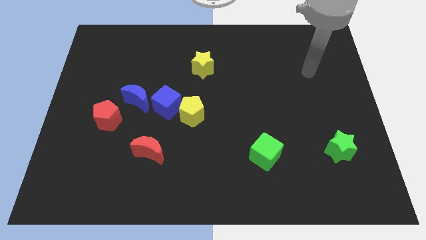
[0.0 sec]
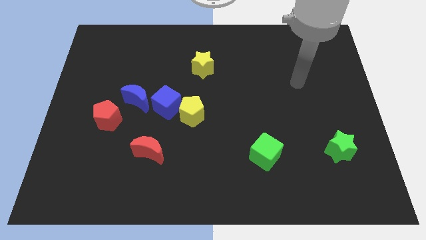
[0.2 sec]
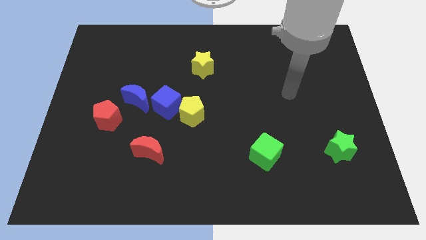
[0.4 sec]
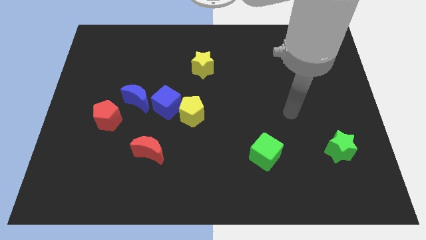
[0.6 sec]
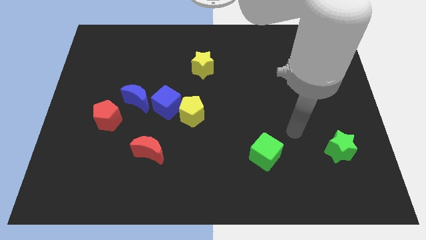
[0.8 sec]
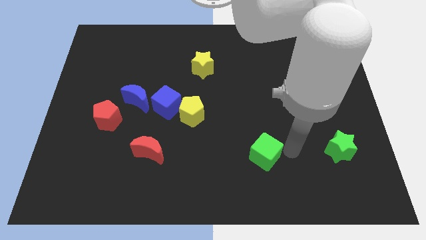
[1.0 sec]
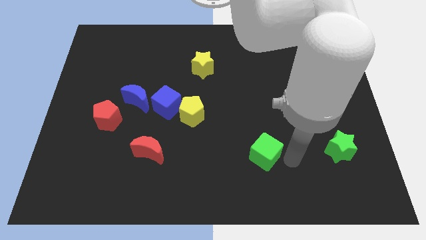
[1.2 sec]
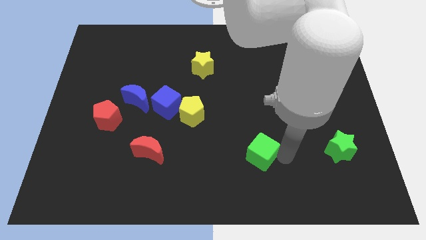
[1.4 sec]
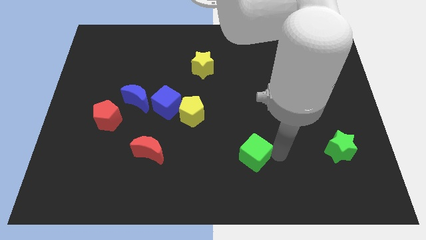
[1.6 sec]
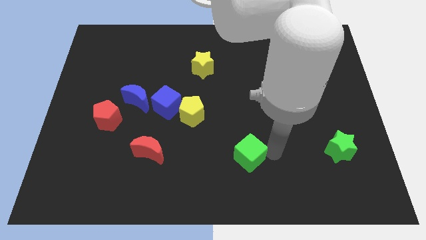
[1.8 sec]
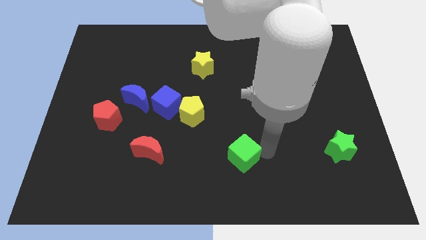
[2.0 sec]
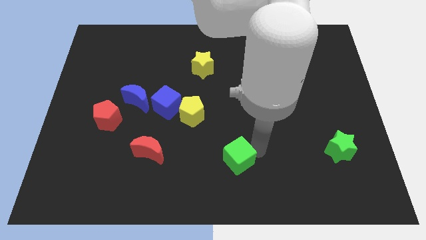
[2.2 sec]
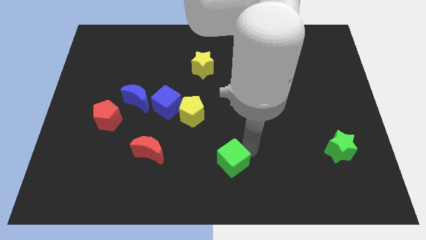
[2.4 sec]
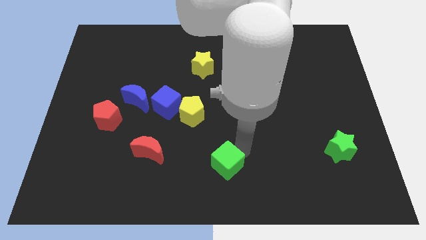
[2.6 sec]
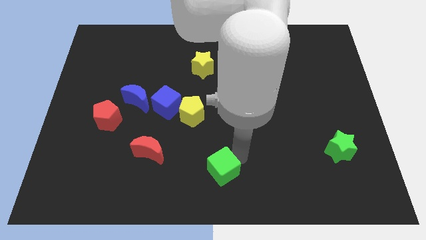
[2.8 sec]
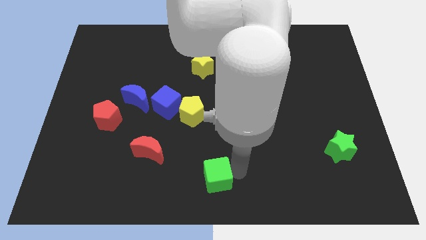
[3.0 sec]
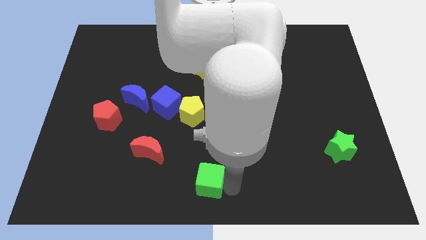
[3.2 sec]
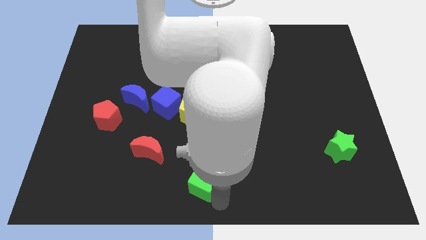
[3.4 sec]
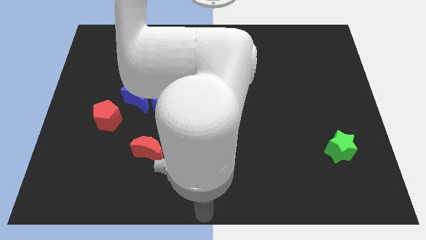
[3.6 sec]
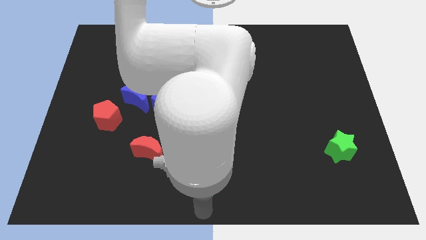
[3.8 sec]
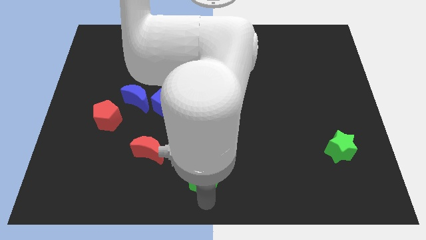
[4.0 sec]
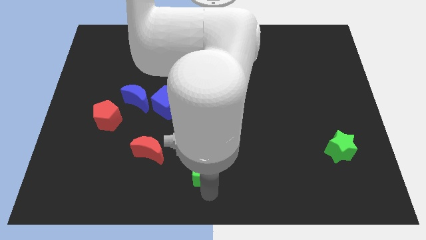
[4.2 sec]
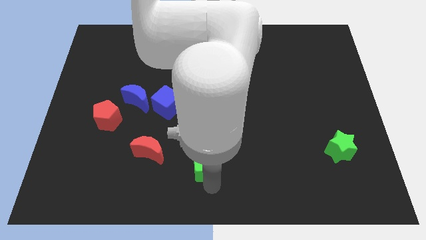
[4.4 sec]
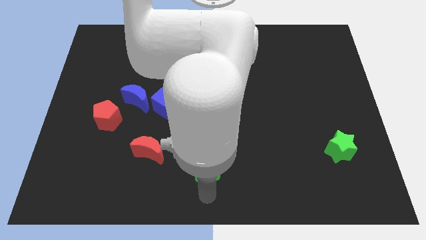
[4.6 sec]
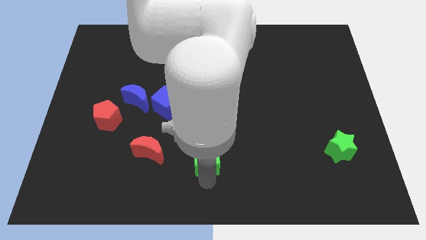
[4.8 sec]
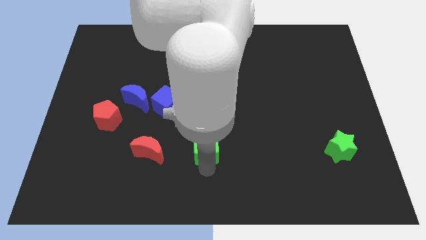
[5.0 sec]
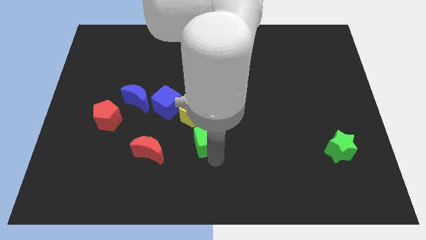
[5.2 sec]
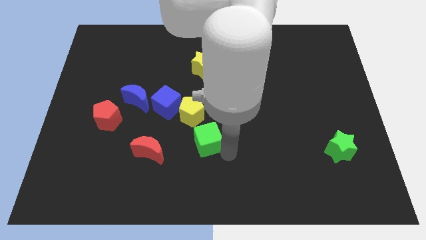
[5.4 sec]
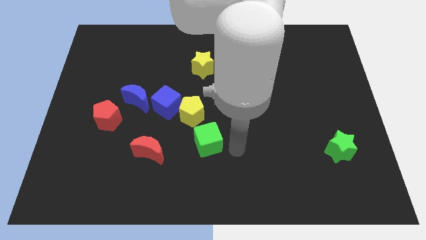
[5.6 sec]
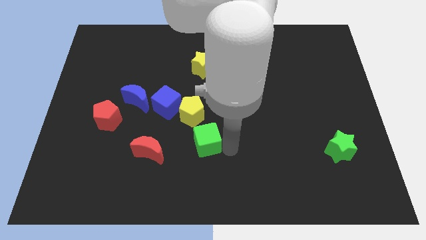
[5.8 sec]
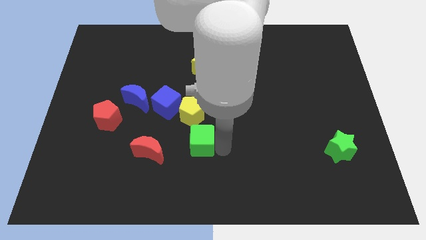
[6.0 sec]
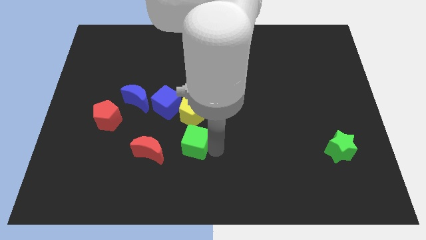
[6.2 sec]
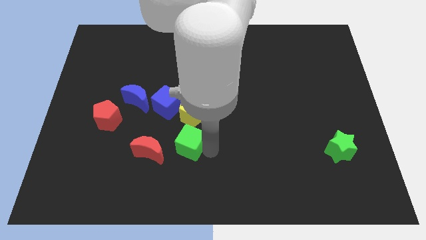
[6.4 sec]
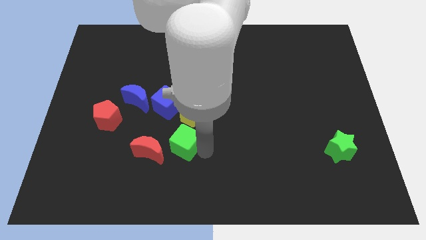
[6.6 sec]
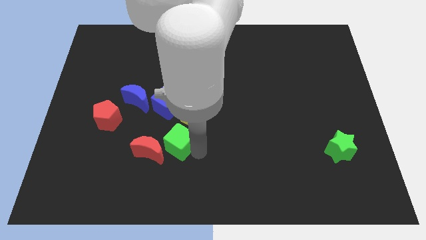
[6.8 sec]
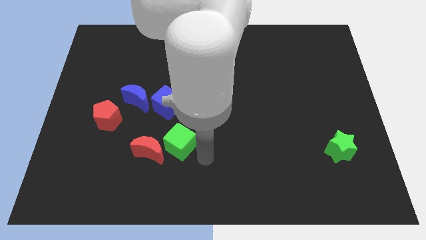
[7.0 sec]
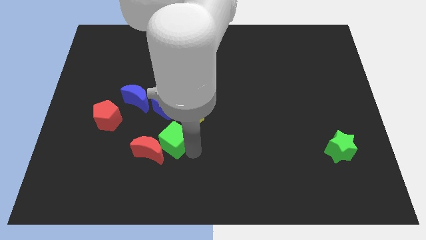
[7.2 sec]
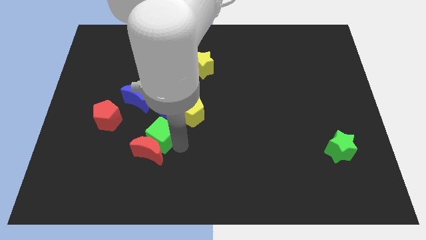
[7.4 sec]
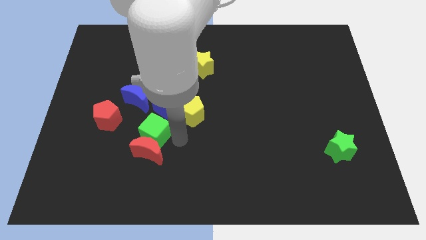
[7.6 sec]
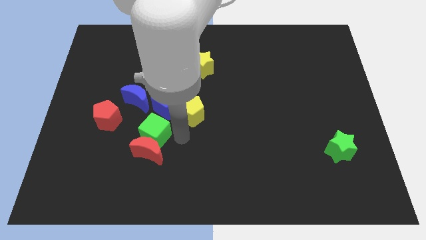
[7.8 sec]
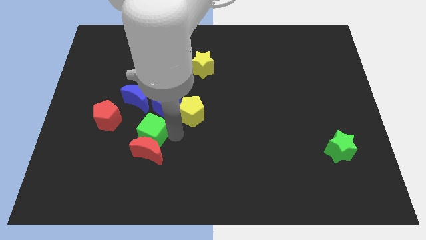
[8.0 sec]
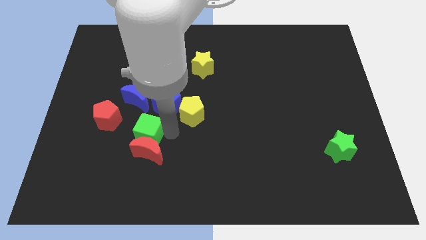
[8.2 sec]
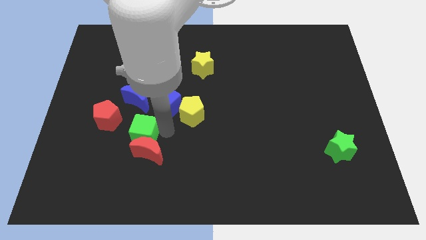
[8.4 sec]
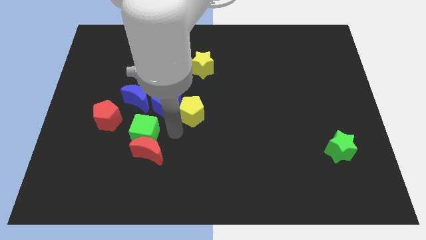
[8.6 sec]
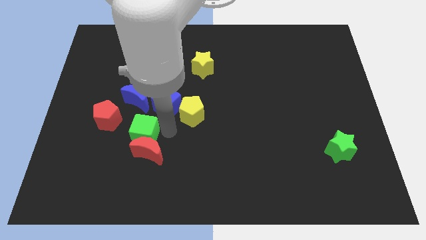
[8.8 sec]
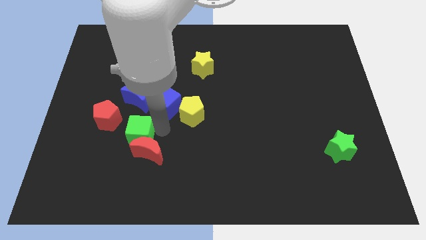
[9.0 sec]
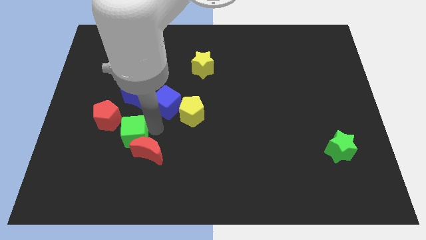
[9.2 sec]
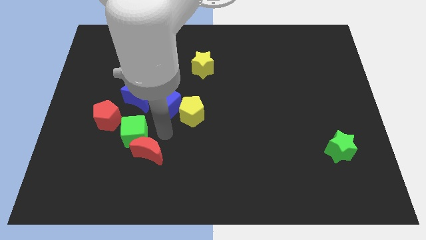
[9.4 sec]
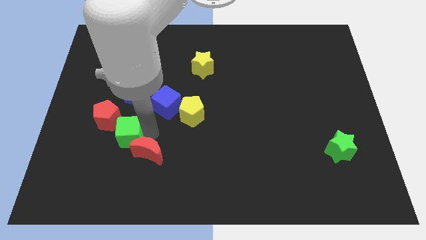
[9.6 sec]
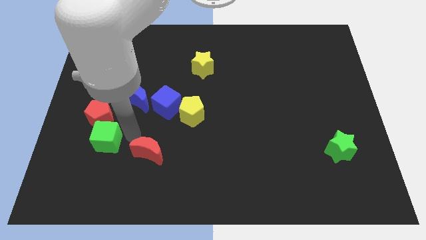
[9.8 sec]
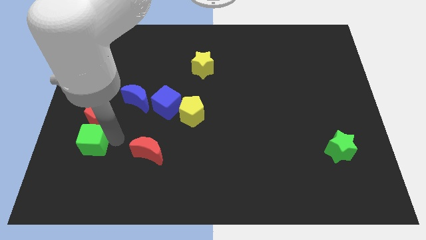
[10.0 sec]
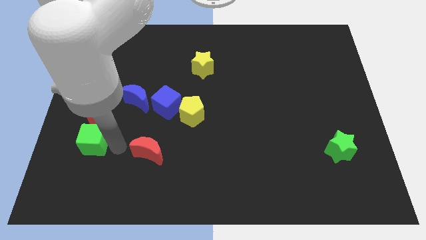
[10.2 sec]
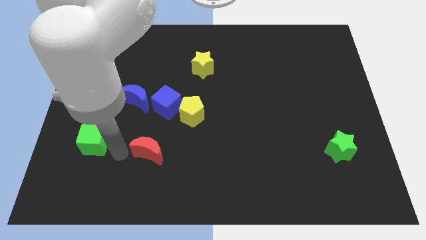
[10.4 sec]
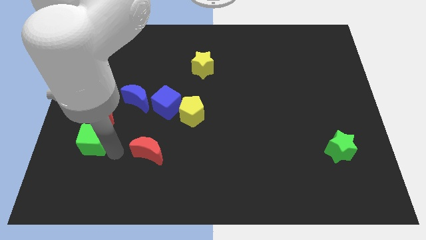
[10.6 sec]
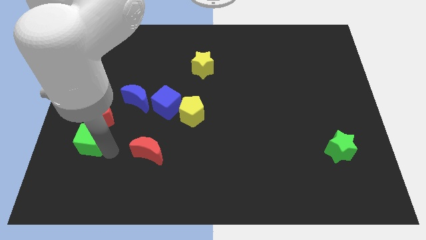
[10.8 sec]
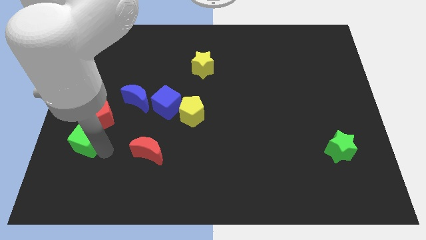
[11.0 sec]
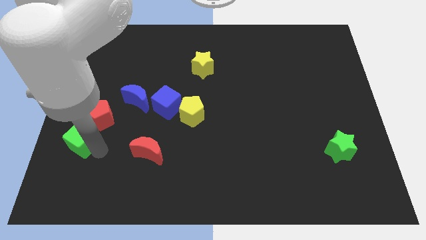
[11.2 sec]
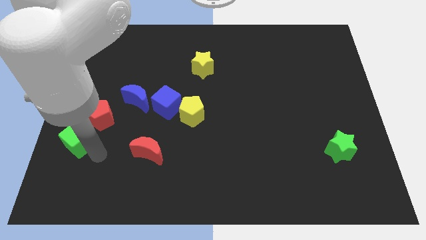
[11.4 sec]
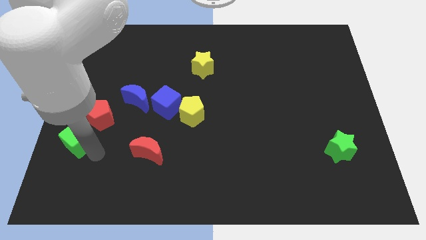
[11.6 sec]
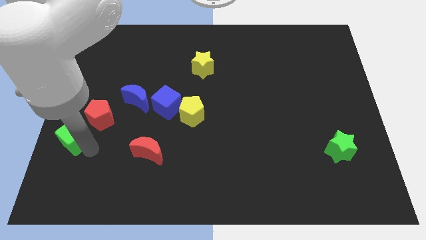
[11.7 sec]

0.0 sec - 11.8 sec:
put the green cube to the left side
